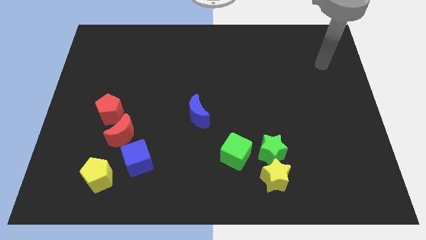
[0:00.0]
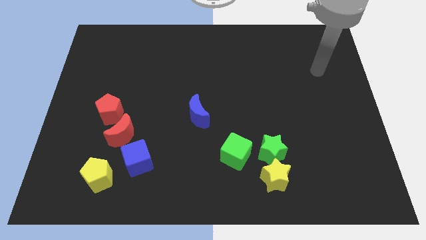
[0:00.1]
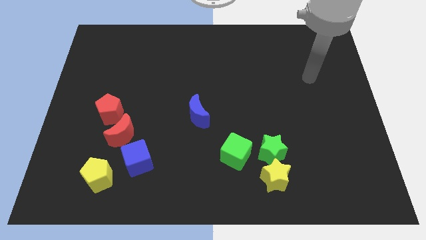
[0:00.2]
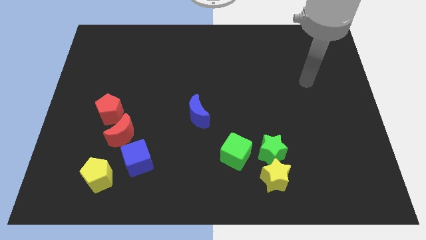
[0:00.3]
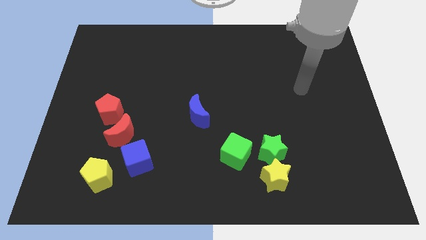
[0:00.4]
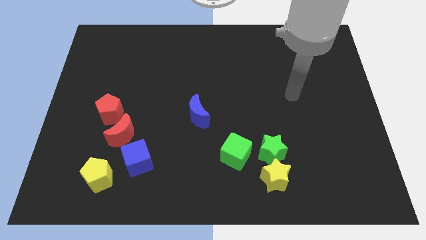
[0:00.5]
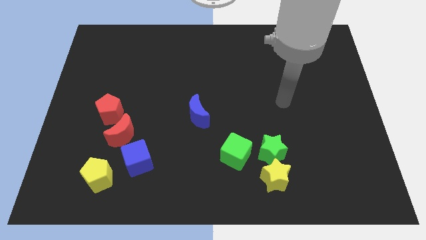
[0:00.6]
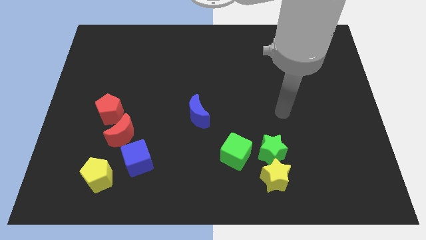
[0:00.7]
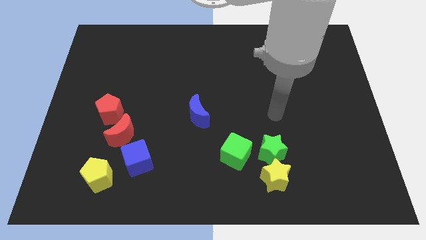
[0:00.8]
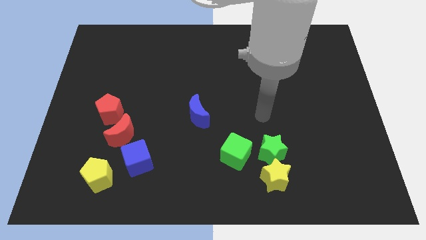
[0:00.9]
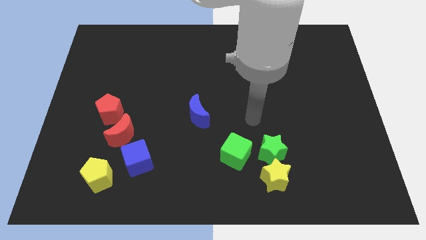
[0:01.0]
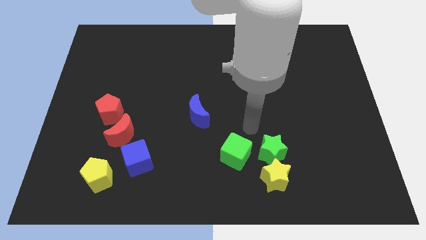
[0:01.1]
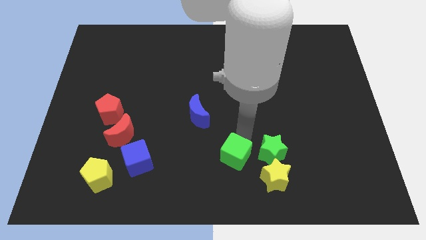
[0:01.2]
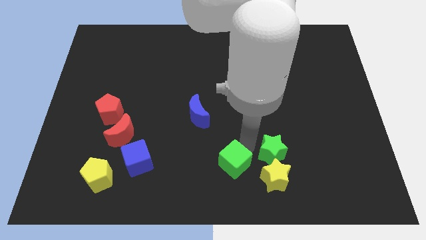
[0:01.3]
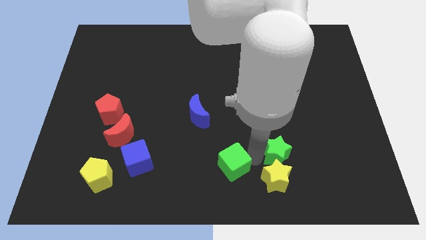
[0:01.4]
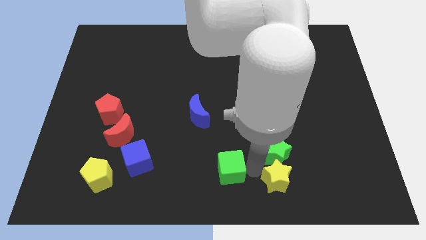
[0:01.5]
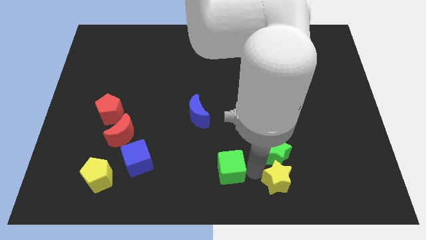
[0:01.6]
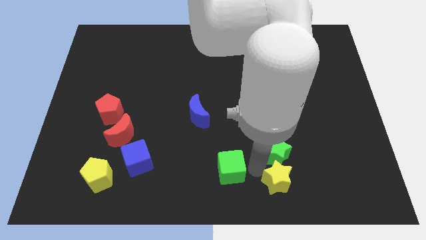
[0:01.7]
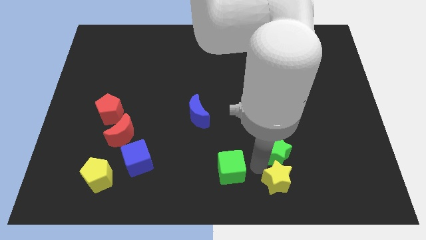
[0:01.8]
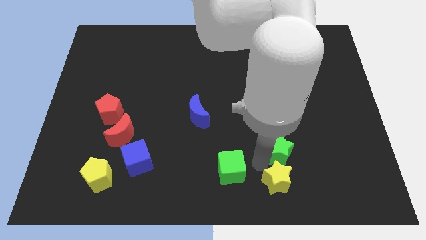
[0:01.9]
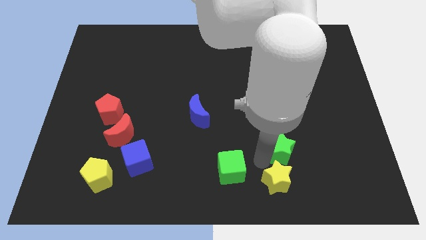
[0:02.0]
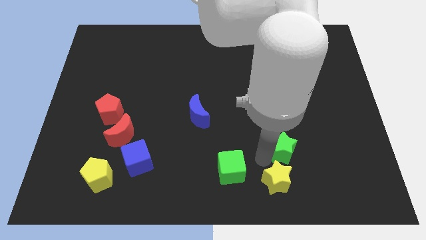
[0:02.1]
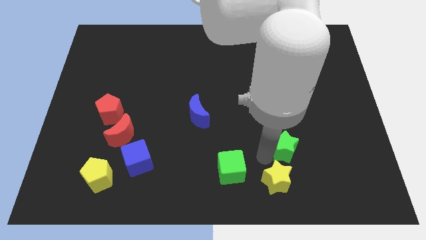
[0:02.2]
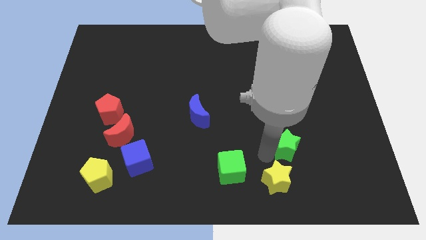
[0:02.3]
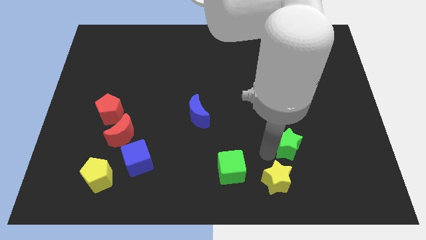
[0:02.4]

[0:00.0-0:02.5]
separate the green star from the yellow star and green cube

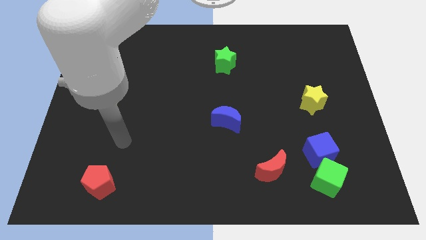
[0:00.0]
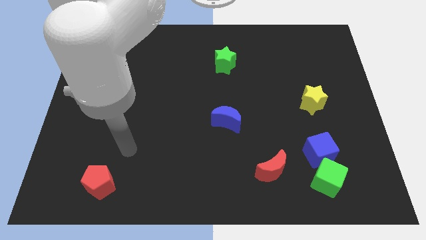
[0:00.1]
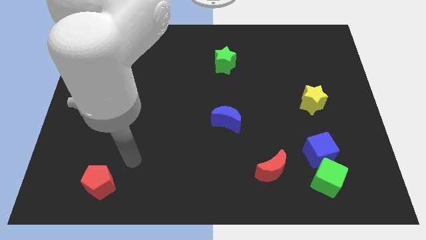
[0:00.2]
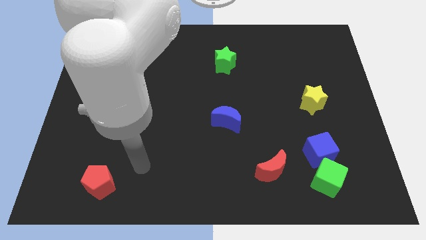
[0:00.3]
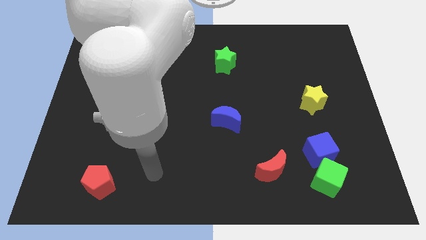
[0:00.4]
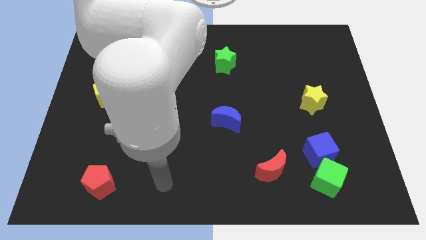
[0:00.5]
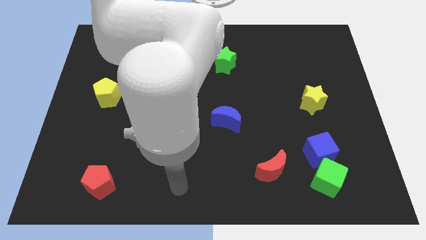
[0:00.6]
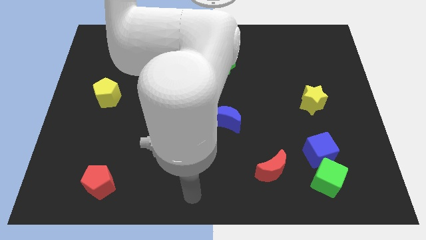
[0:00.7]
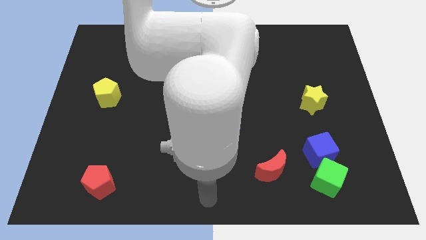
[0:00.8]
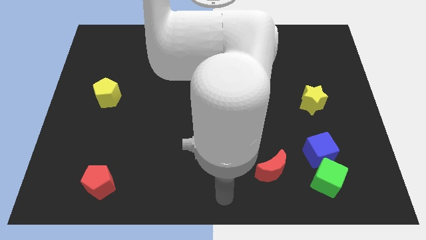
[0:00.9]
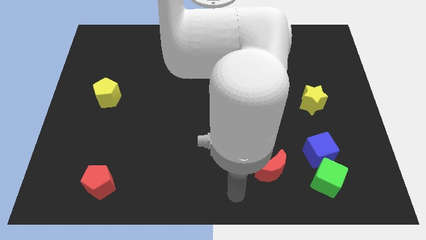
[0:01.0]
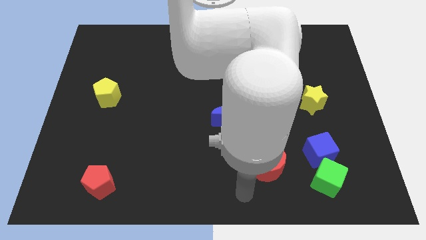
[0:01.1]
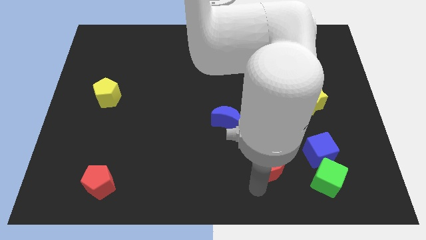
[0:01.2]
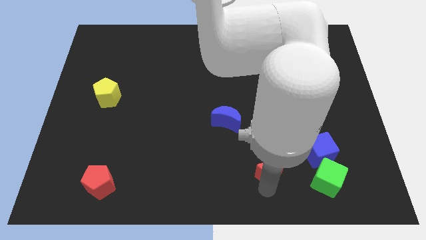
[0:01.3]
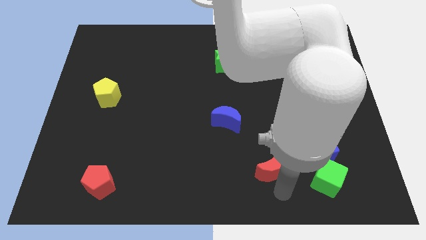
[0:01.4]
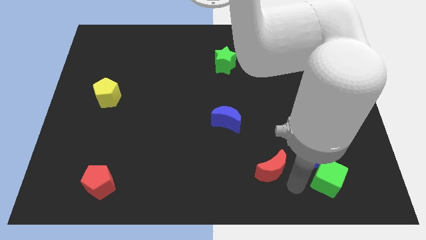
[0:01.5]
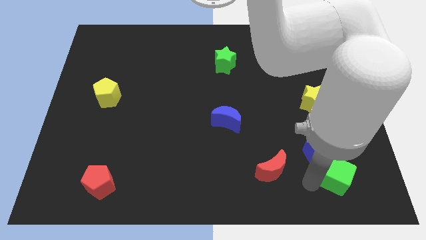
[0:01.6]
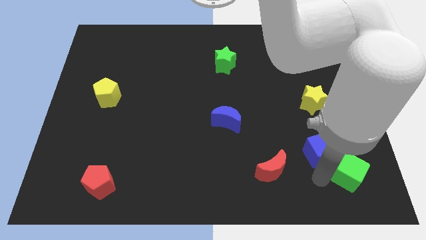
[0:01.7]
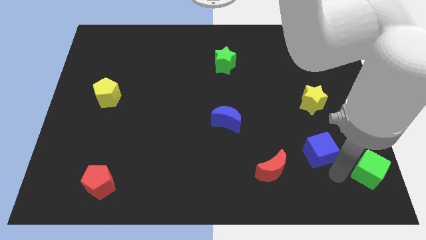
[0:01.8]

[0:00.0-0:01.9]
move the blue cube away from the green cube

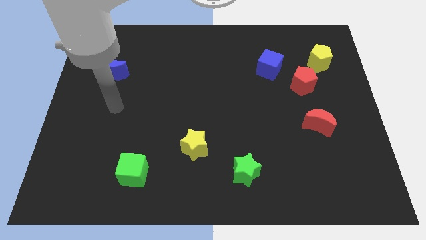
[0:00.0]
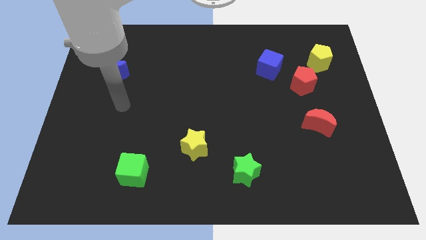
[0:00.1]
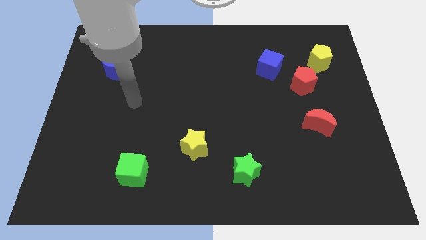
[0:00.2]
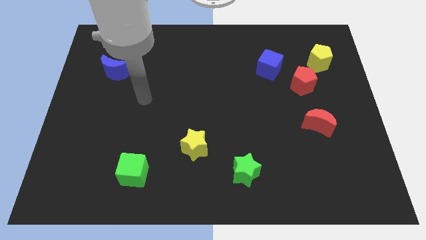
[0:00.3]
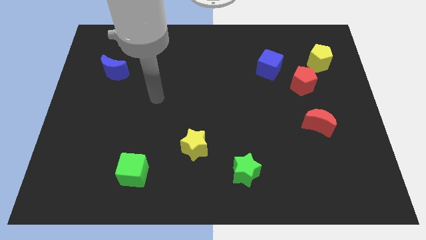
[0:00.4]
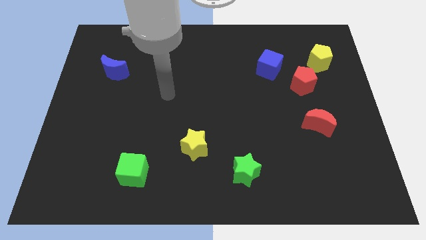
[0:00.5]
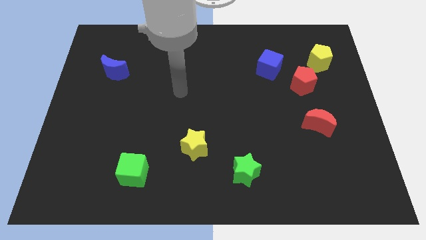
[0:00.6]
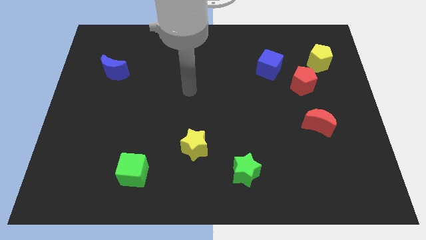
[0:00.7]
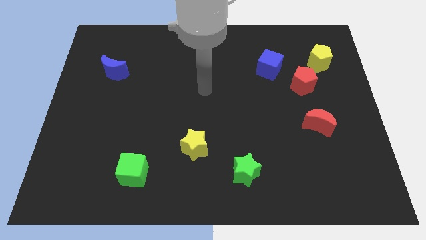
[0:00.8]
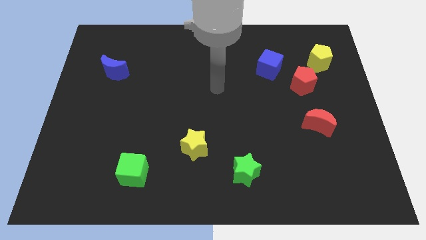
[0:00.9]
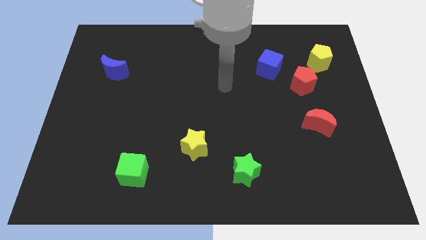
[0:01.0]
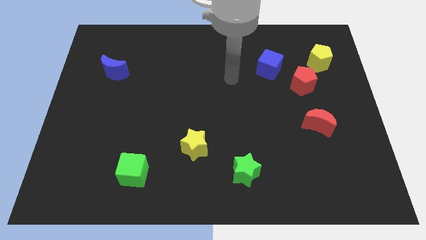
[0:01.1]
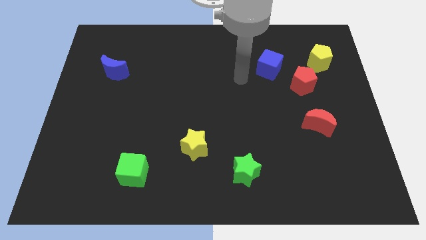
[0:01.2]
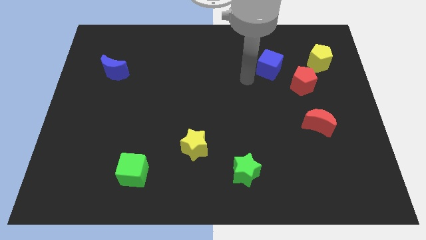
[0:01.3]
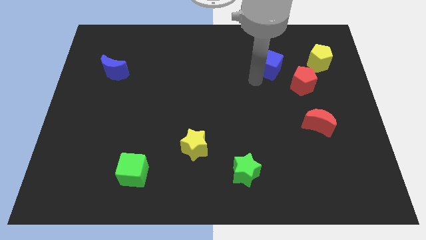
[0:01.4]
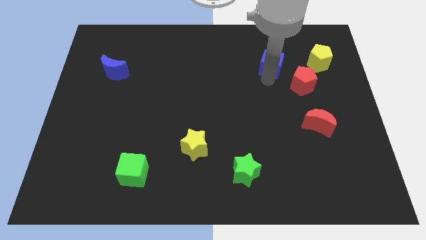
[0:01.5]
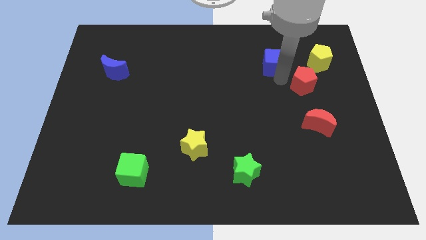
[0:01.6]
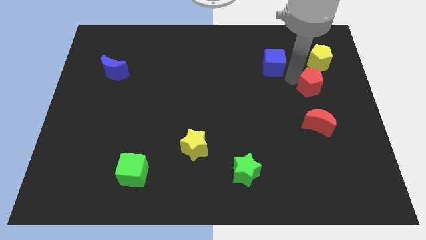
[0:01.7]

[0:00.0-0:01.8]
separate the blue cube from the red pentagon

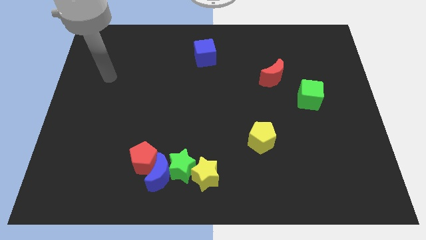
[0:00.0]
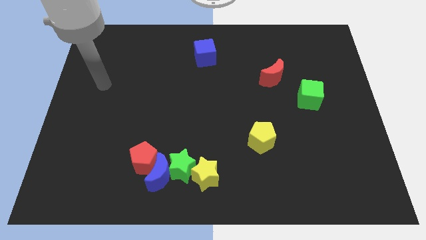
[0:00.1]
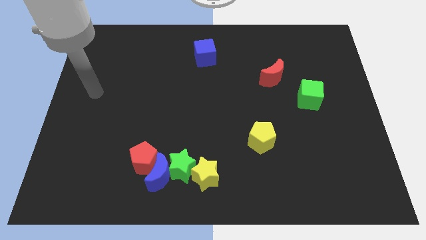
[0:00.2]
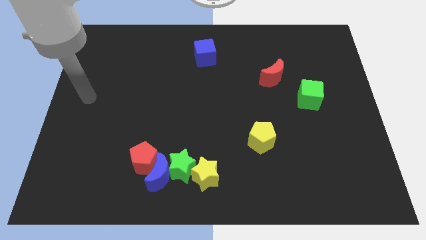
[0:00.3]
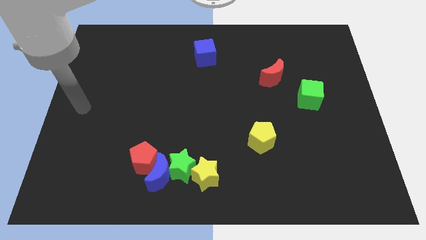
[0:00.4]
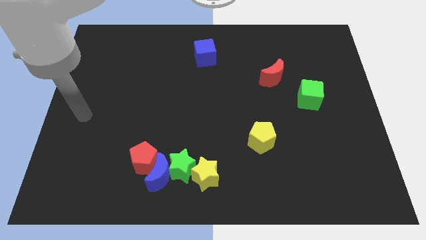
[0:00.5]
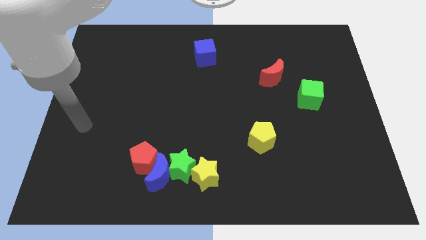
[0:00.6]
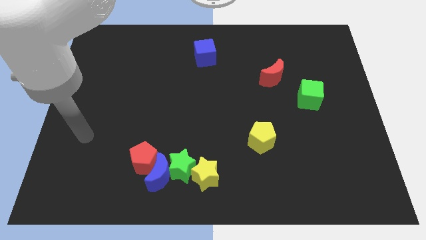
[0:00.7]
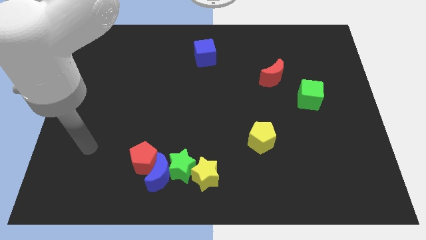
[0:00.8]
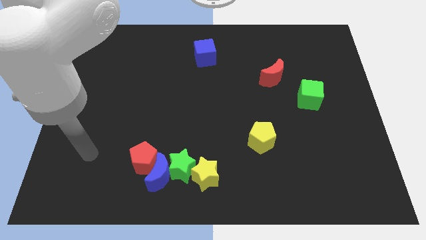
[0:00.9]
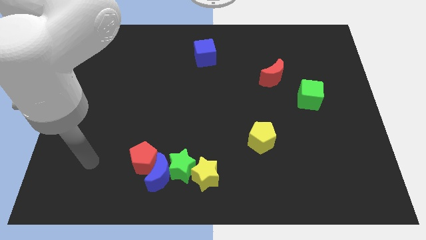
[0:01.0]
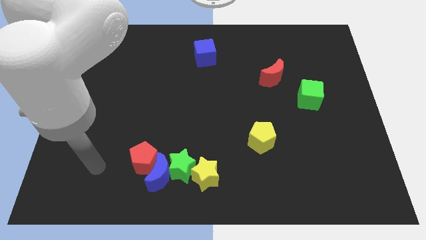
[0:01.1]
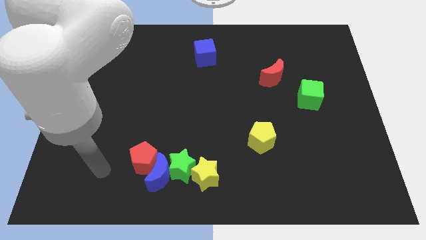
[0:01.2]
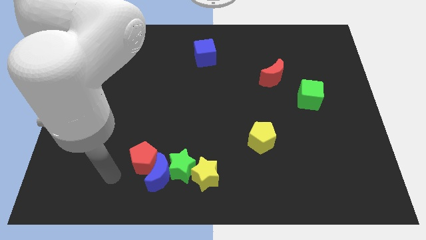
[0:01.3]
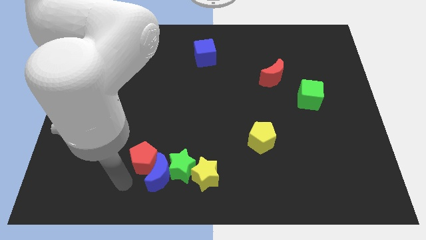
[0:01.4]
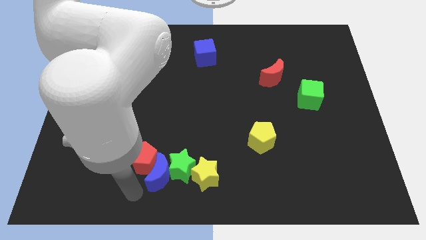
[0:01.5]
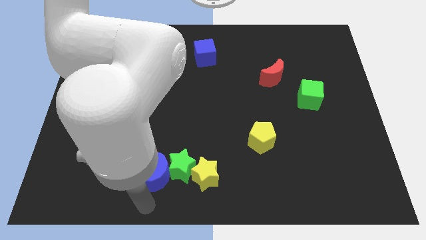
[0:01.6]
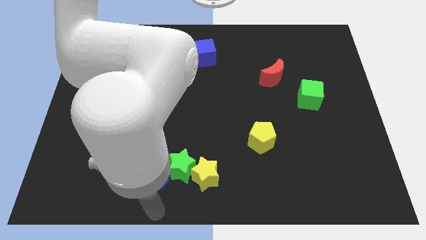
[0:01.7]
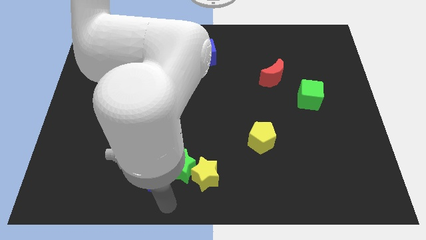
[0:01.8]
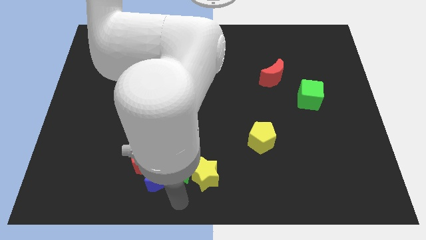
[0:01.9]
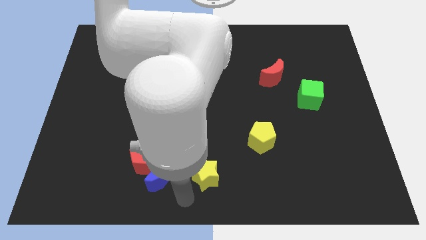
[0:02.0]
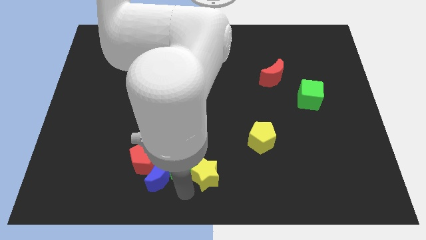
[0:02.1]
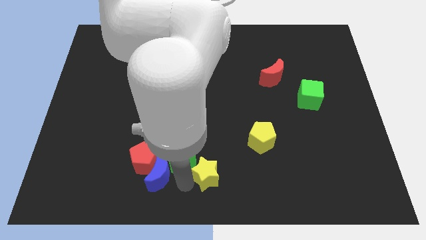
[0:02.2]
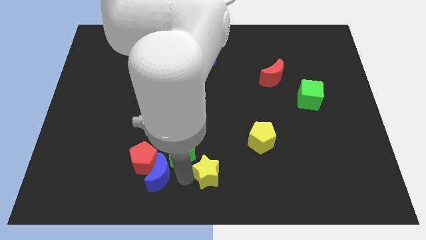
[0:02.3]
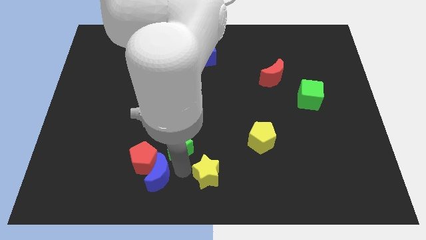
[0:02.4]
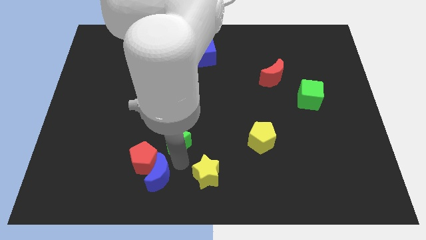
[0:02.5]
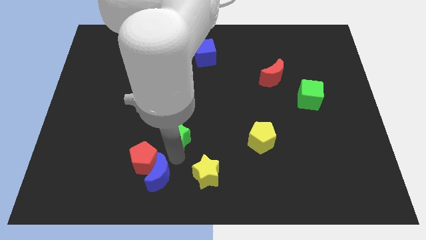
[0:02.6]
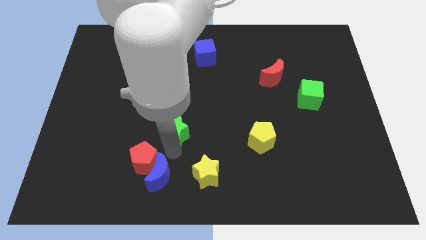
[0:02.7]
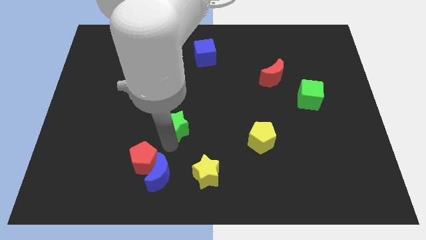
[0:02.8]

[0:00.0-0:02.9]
pull the green star apart from the clump

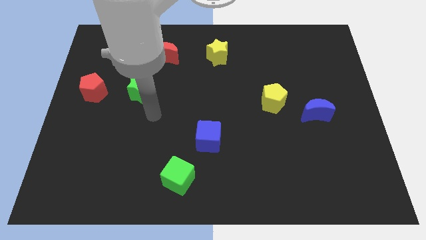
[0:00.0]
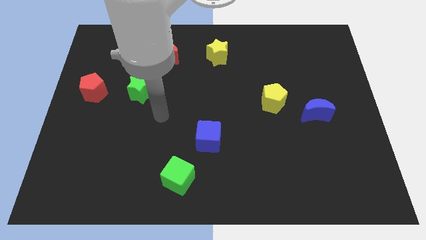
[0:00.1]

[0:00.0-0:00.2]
separate the blue moon from the yellow pentagon

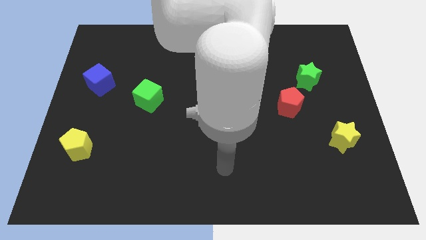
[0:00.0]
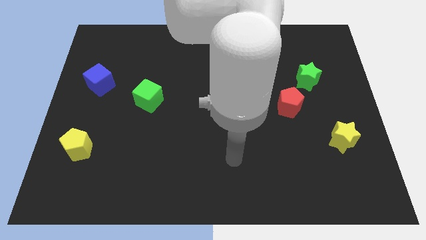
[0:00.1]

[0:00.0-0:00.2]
pull the red pentagon apart from the green star
